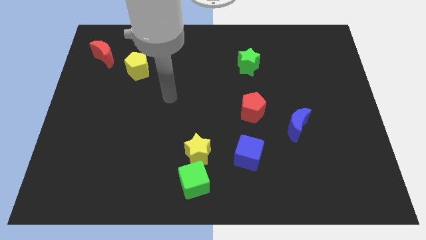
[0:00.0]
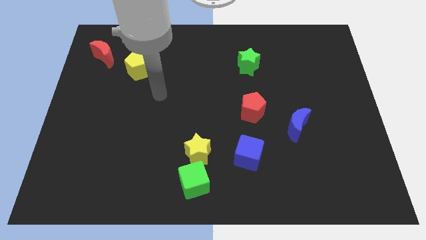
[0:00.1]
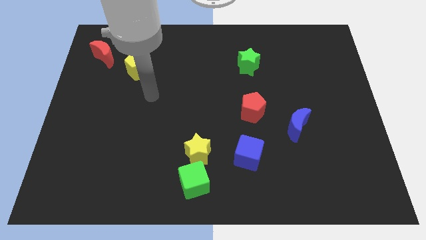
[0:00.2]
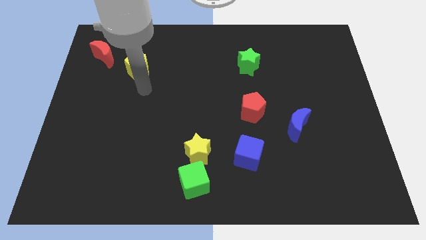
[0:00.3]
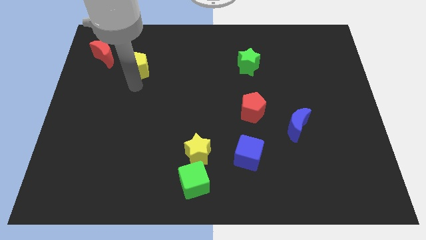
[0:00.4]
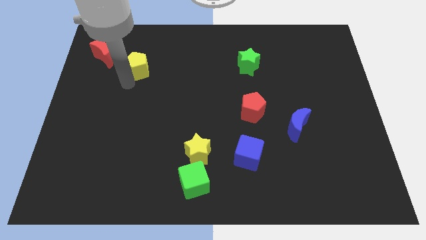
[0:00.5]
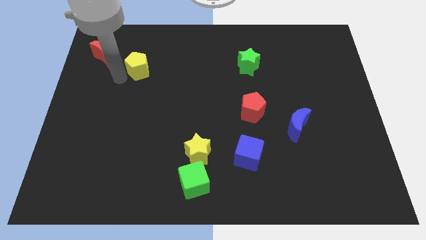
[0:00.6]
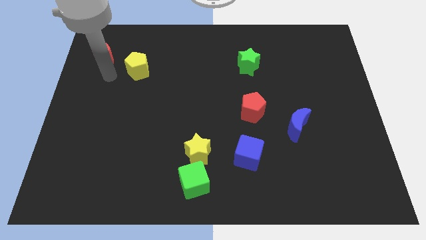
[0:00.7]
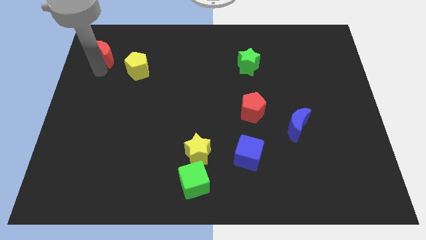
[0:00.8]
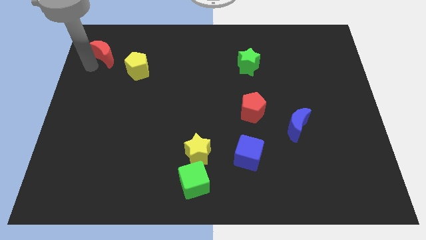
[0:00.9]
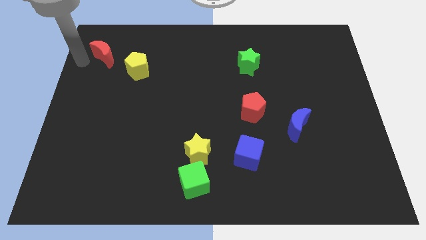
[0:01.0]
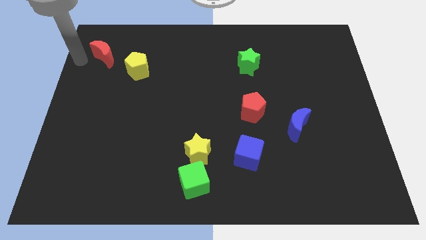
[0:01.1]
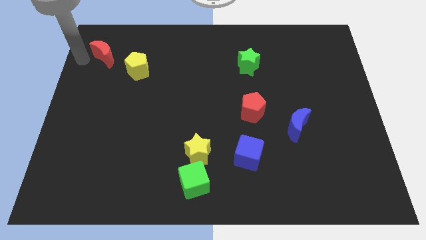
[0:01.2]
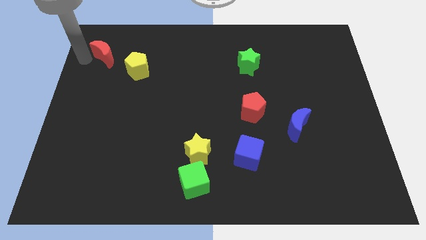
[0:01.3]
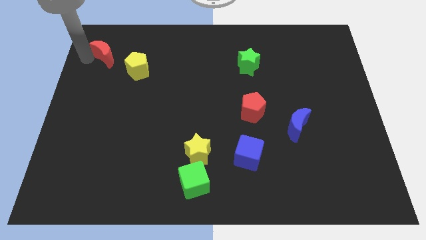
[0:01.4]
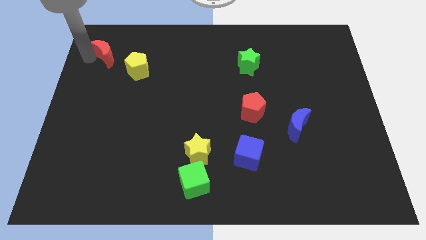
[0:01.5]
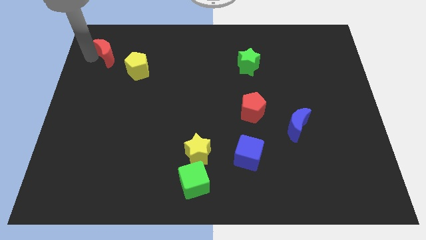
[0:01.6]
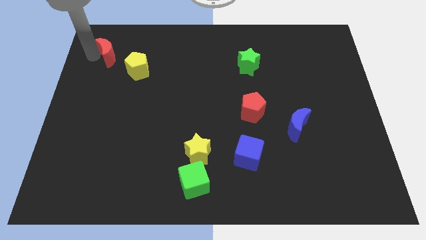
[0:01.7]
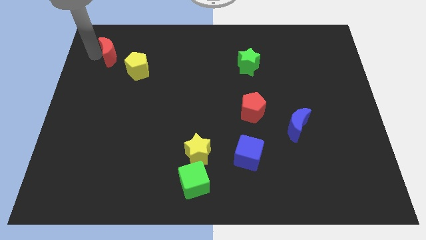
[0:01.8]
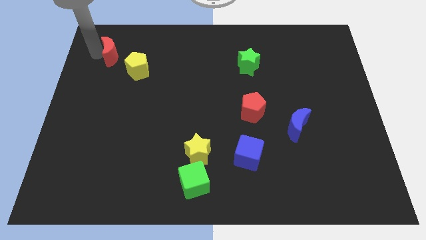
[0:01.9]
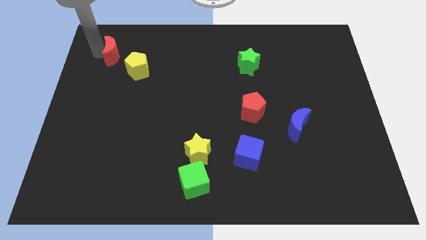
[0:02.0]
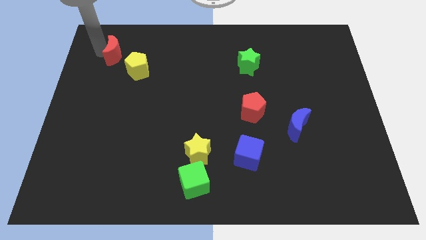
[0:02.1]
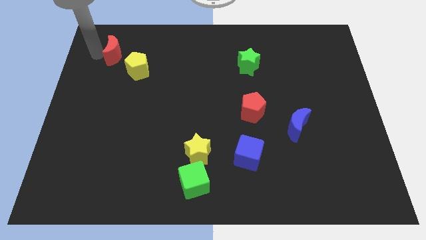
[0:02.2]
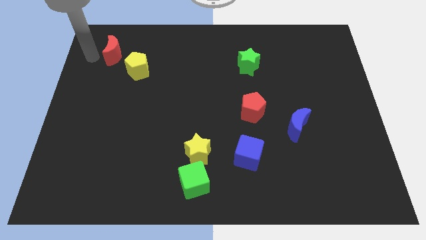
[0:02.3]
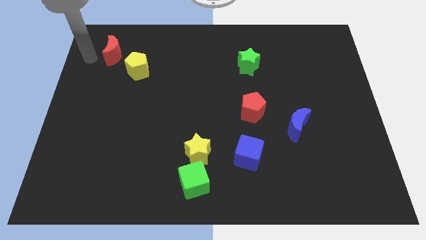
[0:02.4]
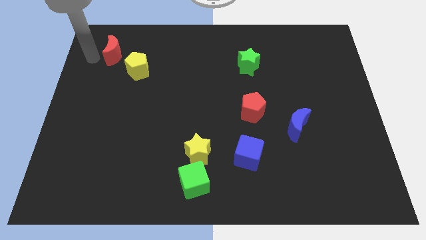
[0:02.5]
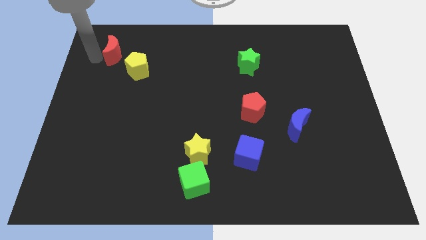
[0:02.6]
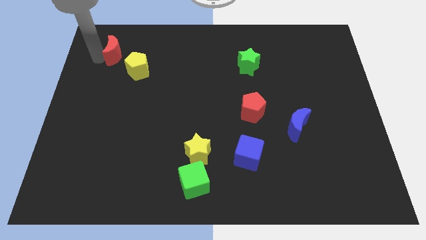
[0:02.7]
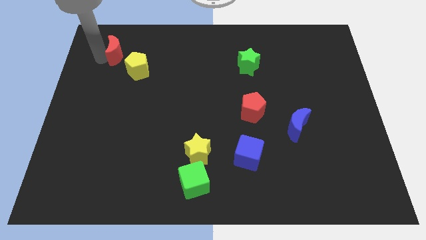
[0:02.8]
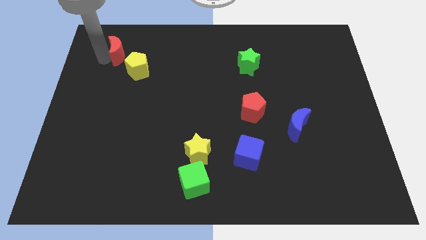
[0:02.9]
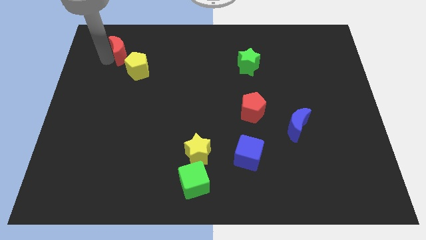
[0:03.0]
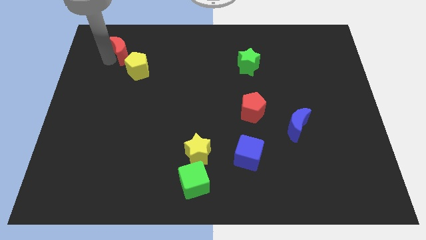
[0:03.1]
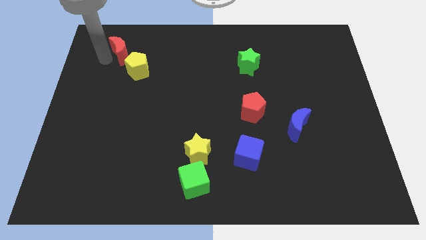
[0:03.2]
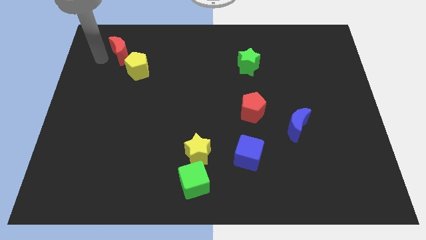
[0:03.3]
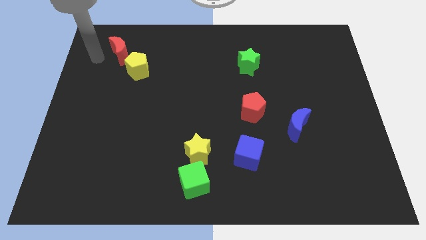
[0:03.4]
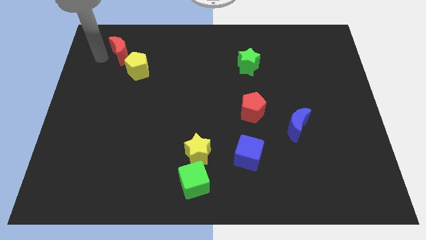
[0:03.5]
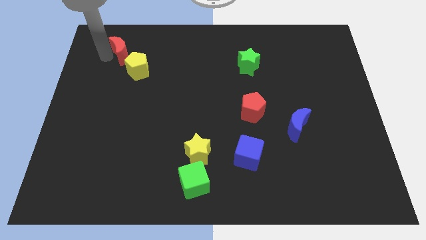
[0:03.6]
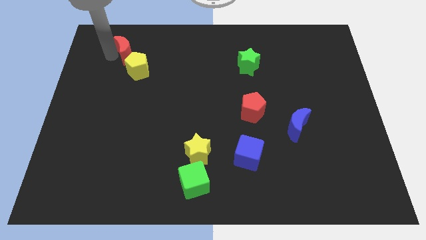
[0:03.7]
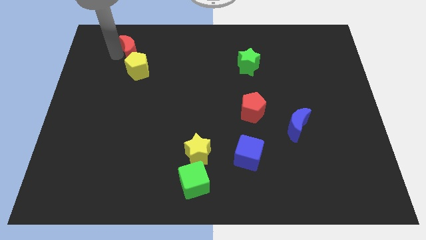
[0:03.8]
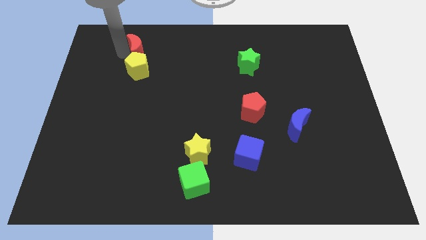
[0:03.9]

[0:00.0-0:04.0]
move the red moon to the right slightly

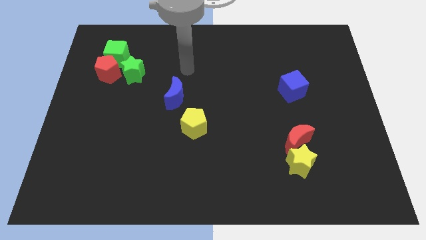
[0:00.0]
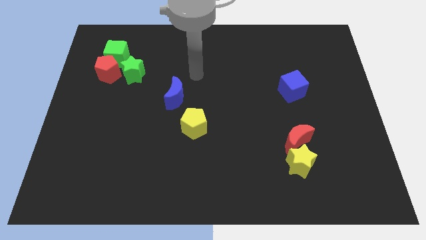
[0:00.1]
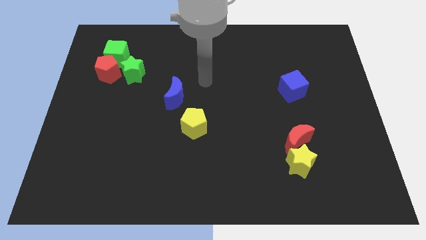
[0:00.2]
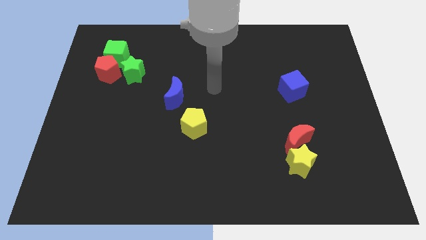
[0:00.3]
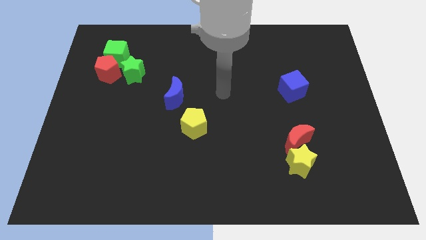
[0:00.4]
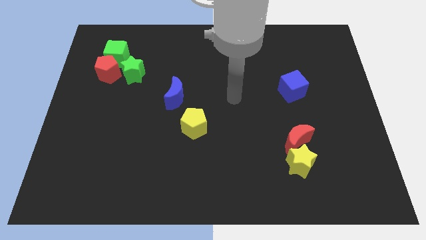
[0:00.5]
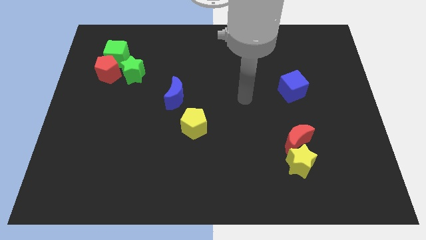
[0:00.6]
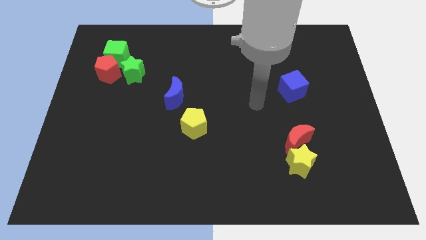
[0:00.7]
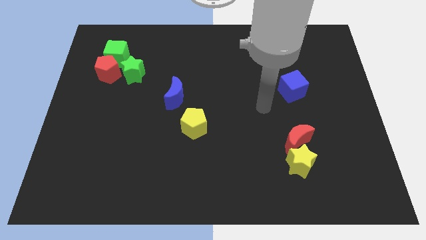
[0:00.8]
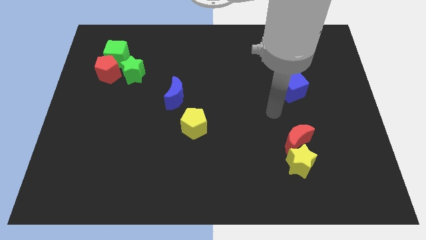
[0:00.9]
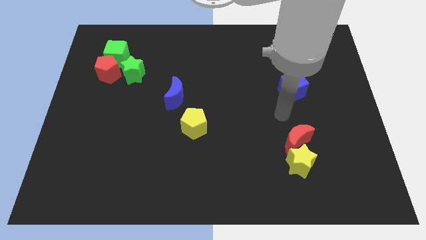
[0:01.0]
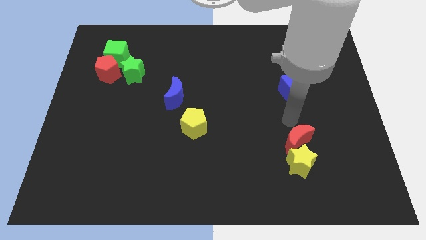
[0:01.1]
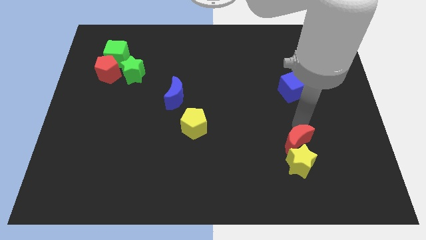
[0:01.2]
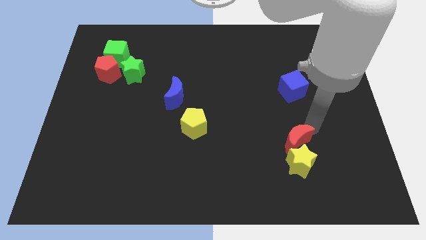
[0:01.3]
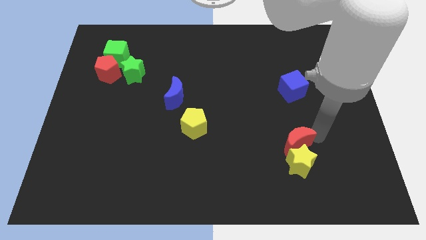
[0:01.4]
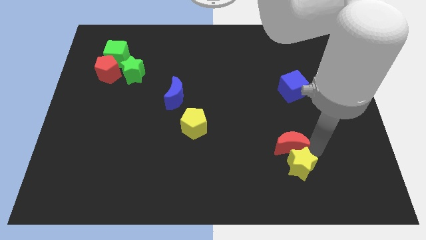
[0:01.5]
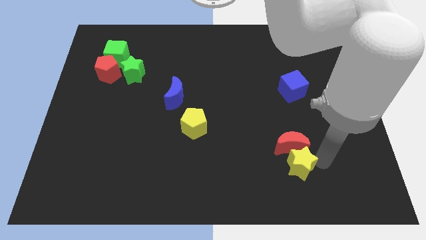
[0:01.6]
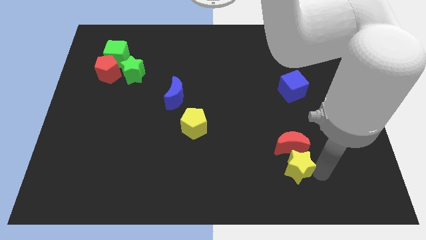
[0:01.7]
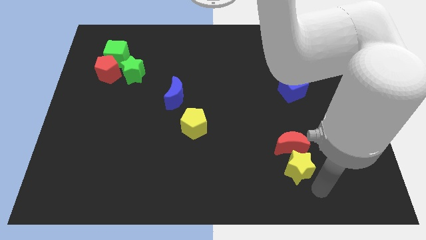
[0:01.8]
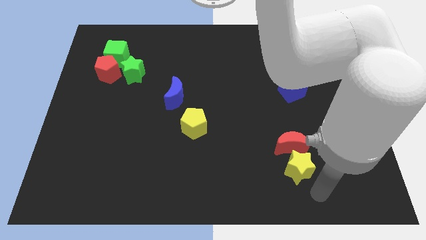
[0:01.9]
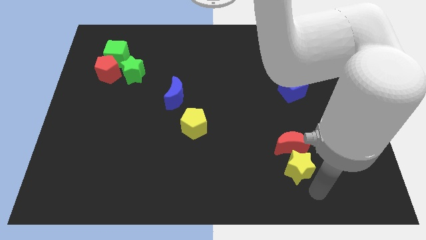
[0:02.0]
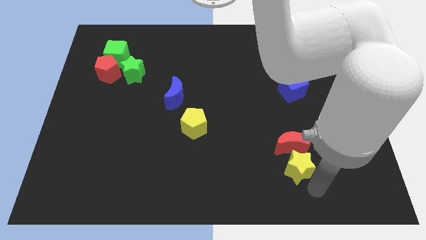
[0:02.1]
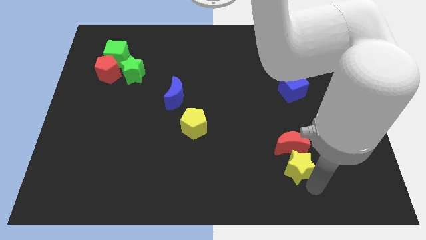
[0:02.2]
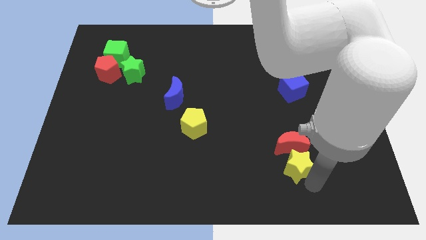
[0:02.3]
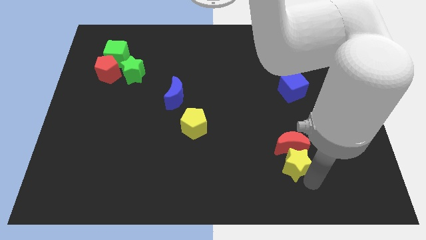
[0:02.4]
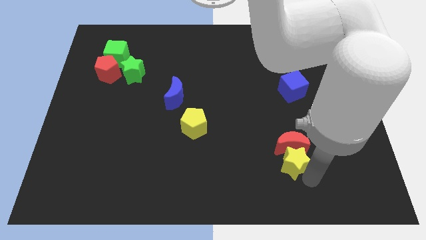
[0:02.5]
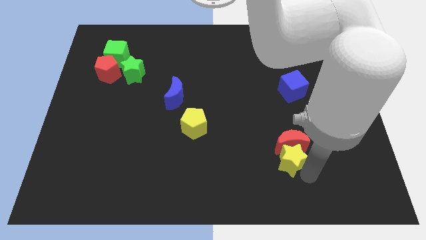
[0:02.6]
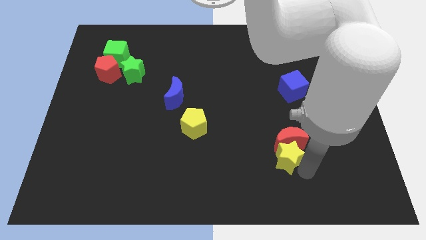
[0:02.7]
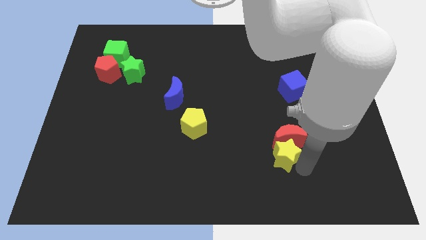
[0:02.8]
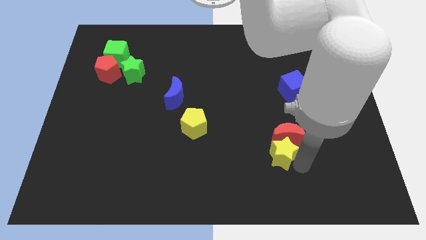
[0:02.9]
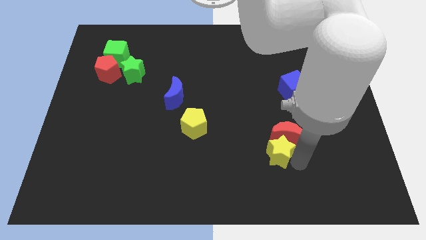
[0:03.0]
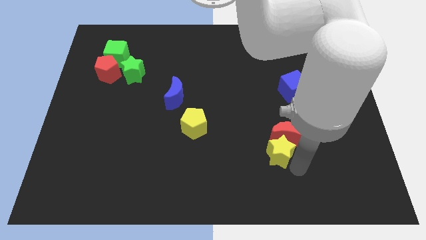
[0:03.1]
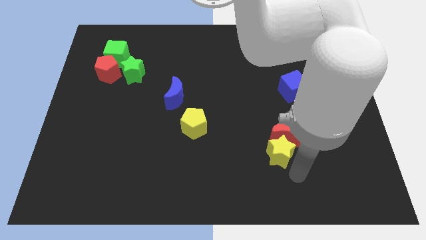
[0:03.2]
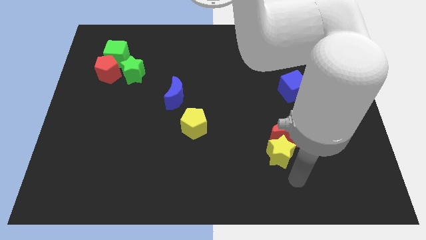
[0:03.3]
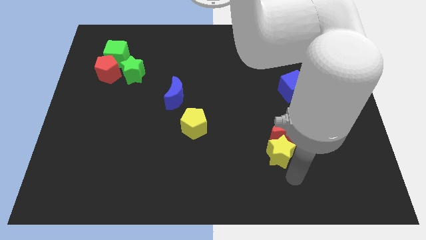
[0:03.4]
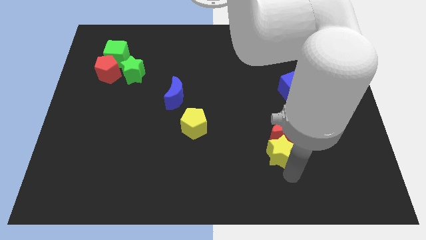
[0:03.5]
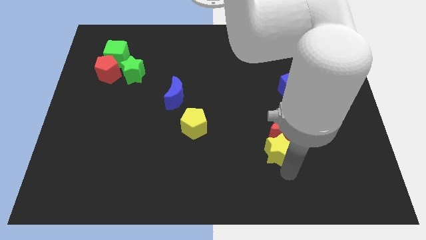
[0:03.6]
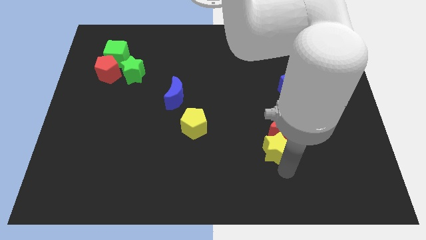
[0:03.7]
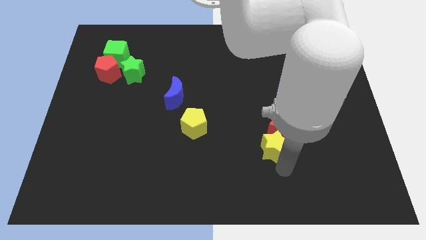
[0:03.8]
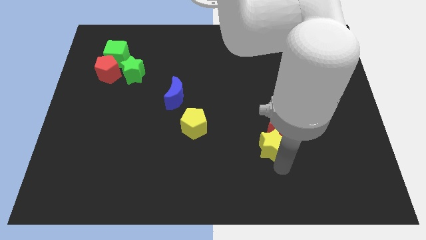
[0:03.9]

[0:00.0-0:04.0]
move the yellow star somewhat up and to the left
